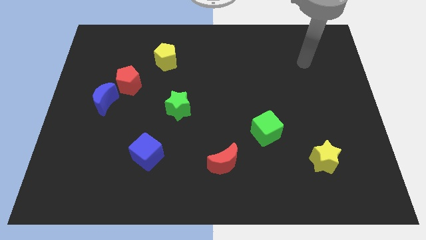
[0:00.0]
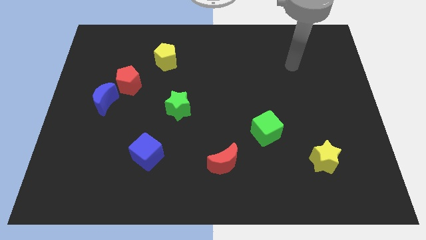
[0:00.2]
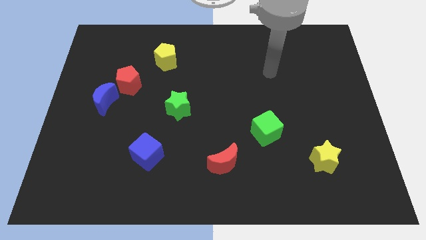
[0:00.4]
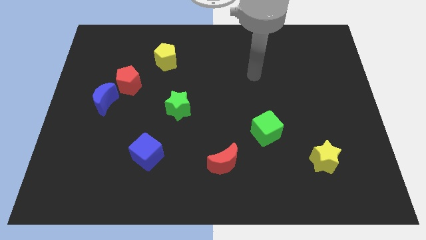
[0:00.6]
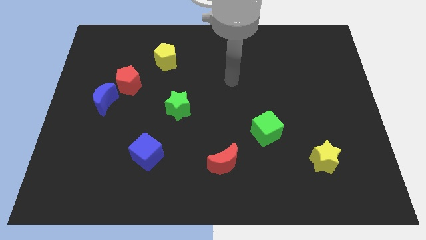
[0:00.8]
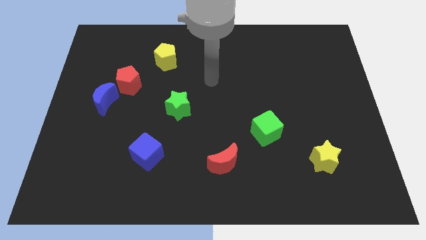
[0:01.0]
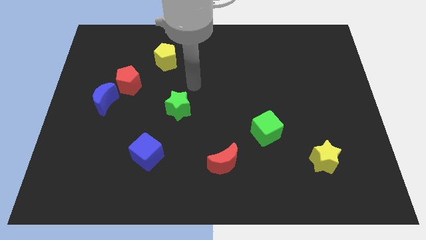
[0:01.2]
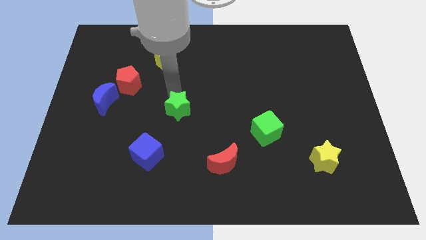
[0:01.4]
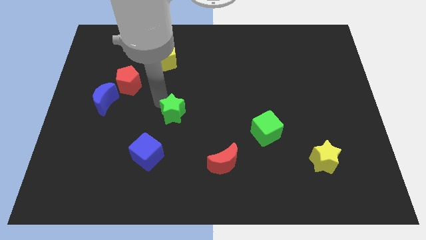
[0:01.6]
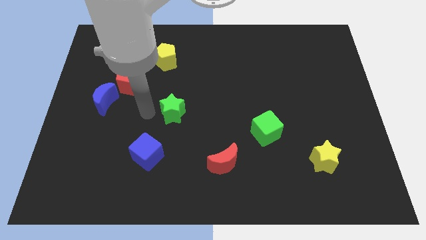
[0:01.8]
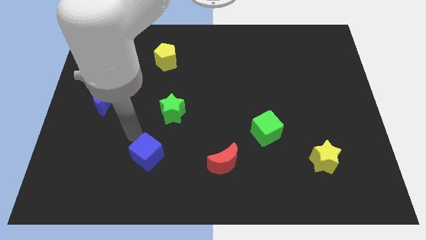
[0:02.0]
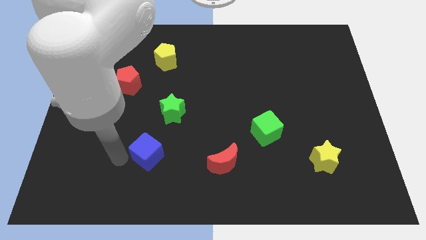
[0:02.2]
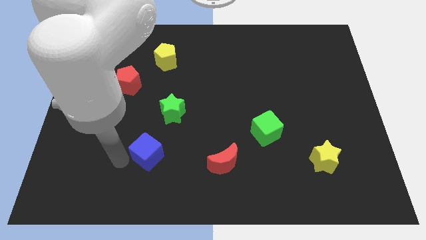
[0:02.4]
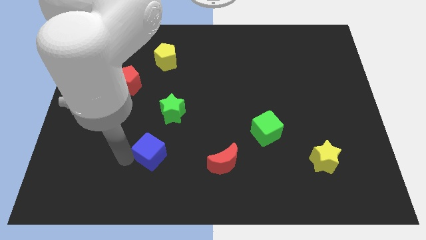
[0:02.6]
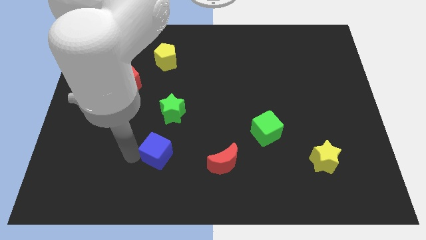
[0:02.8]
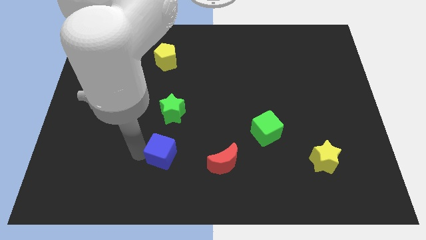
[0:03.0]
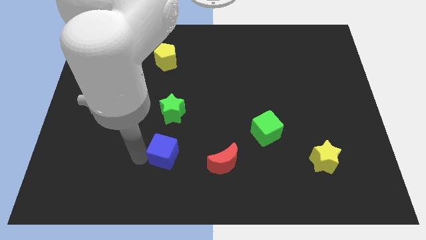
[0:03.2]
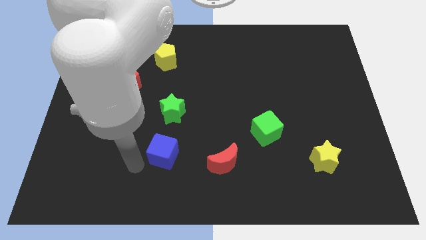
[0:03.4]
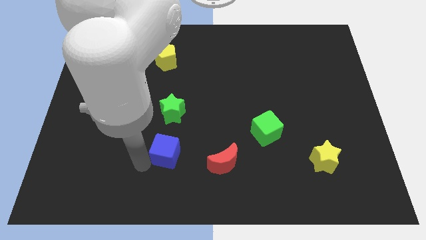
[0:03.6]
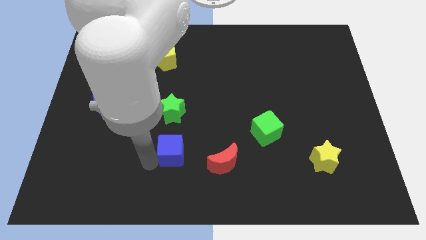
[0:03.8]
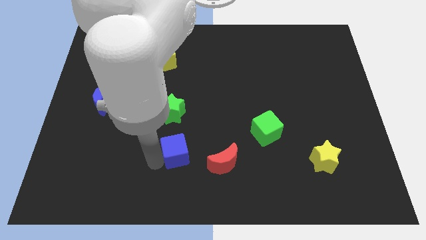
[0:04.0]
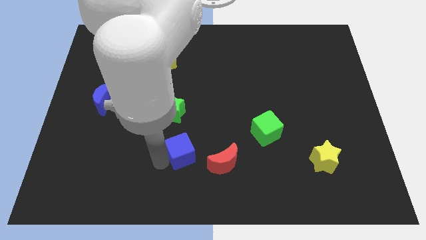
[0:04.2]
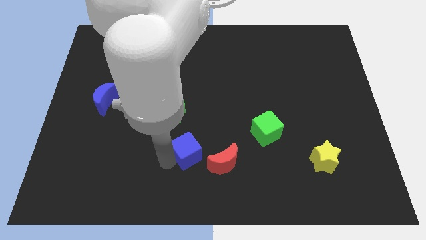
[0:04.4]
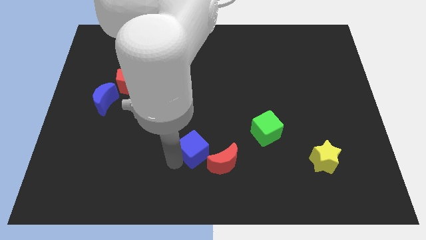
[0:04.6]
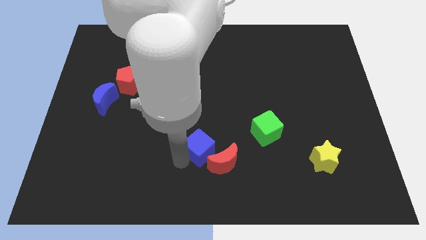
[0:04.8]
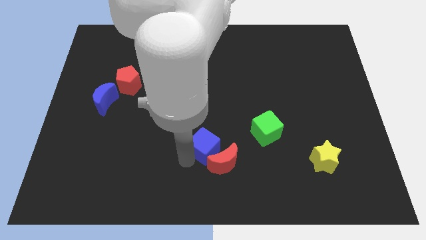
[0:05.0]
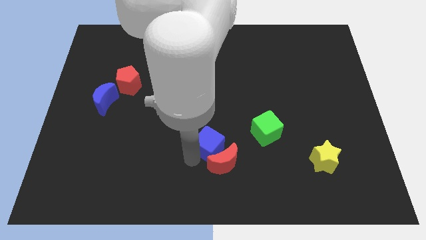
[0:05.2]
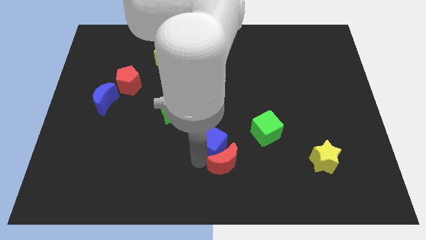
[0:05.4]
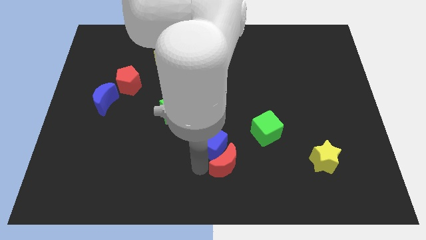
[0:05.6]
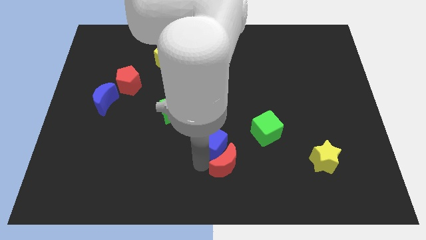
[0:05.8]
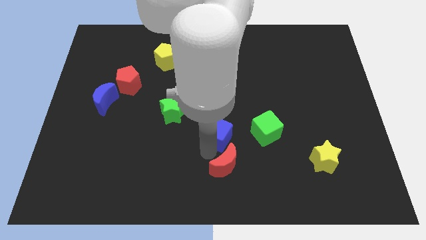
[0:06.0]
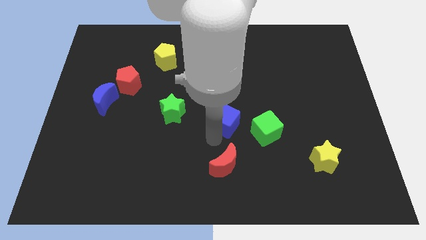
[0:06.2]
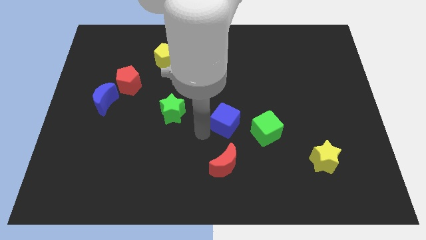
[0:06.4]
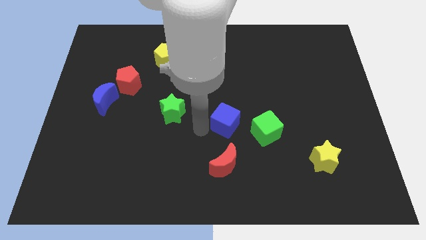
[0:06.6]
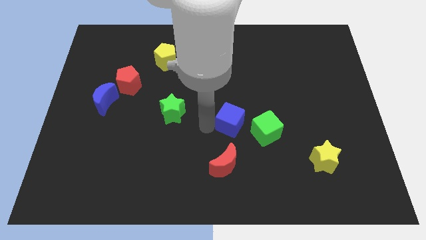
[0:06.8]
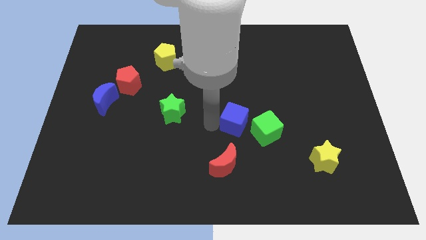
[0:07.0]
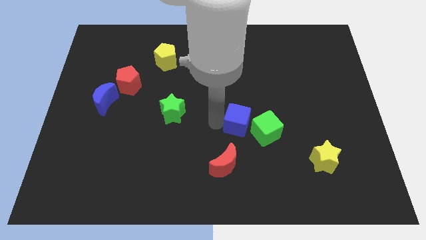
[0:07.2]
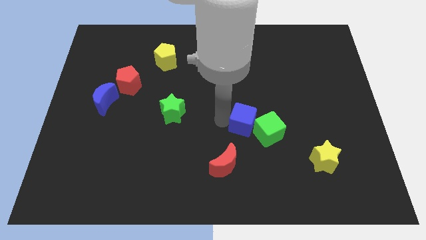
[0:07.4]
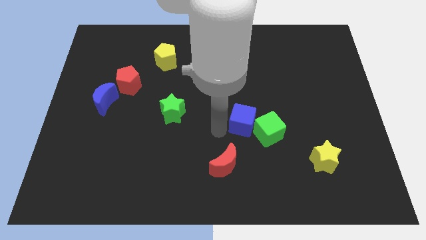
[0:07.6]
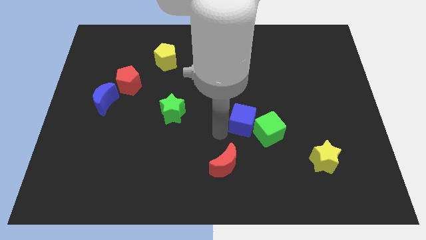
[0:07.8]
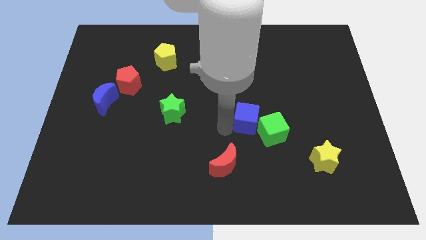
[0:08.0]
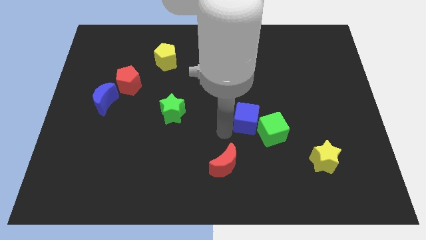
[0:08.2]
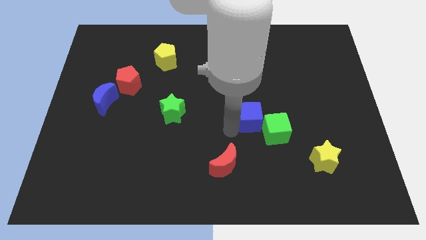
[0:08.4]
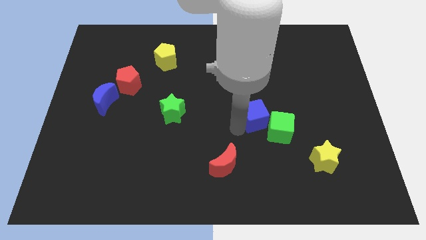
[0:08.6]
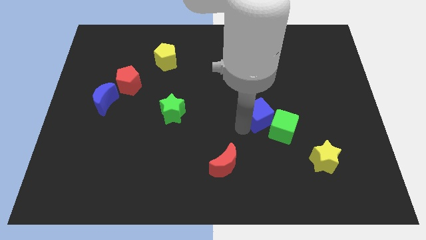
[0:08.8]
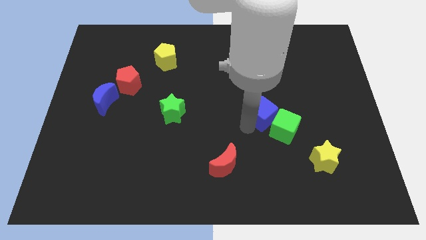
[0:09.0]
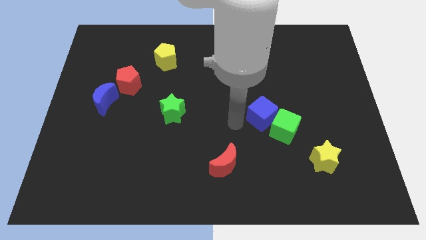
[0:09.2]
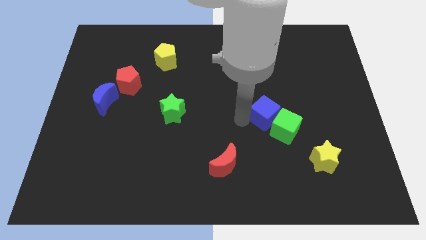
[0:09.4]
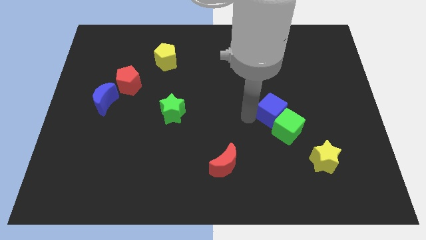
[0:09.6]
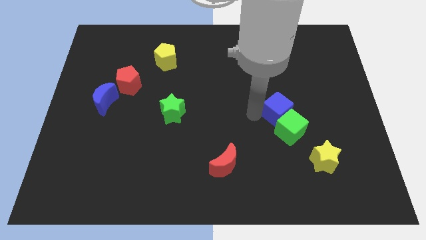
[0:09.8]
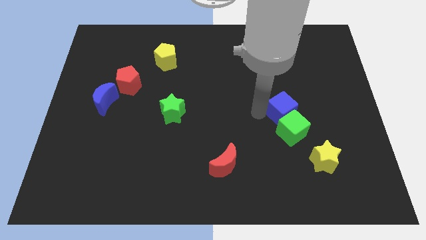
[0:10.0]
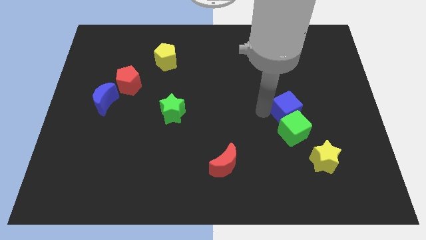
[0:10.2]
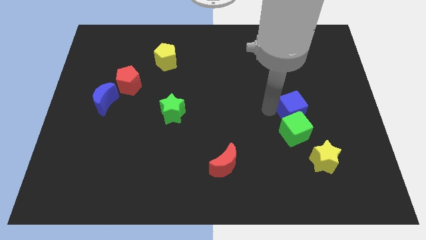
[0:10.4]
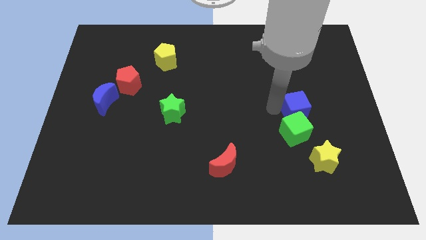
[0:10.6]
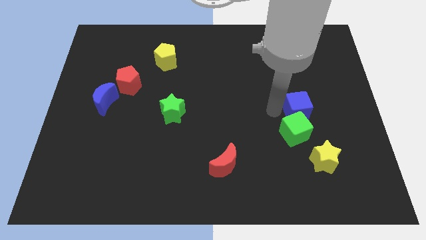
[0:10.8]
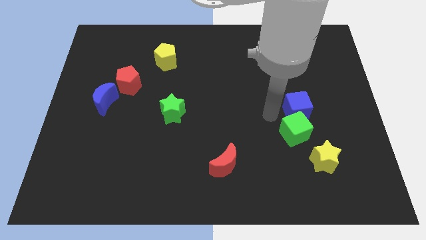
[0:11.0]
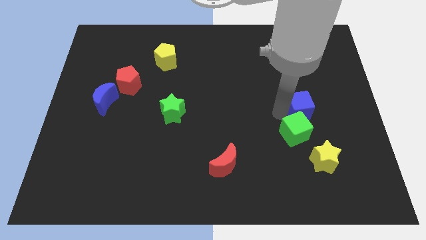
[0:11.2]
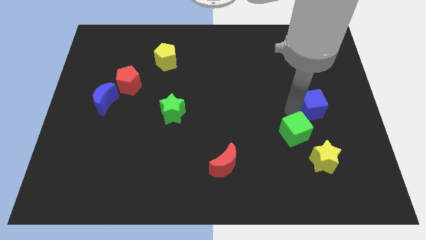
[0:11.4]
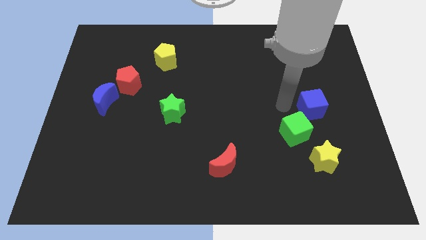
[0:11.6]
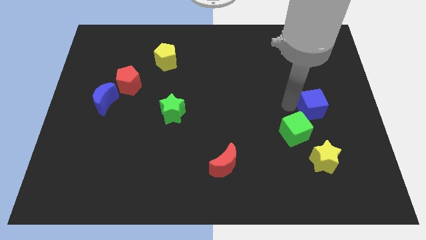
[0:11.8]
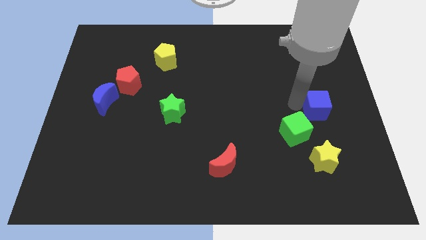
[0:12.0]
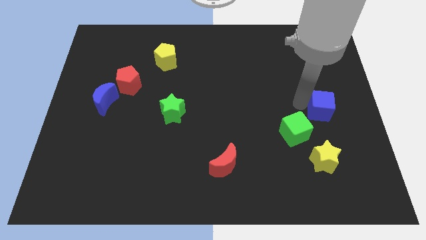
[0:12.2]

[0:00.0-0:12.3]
push the blue cube to the right side of the board
